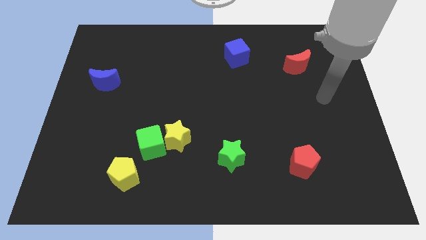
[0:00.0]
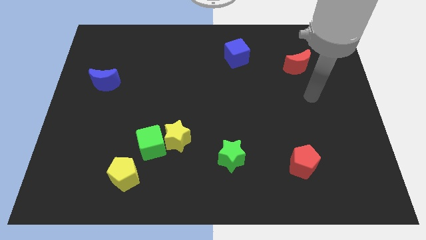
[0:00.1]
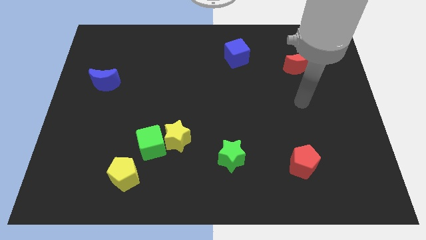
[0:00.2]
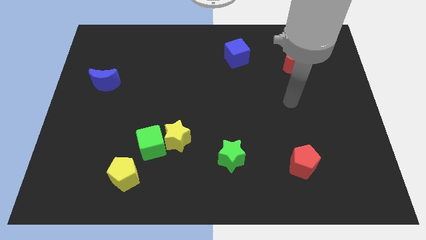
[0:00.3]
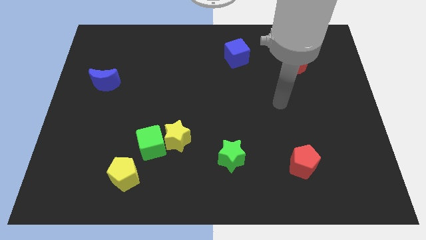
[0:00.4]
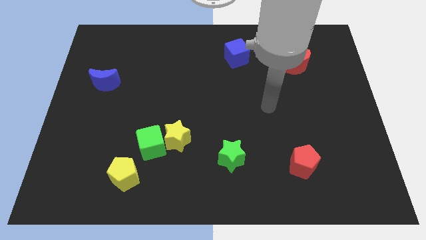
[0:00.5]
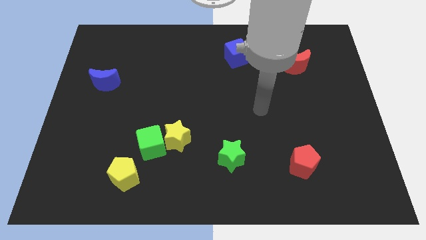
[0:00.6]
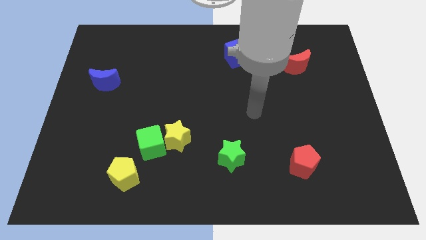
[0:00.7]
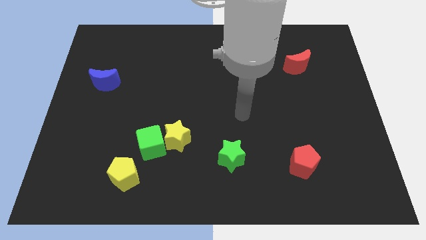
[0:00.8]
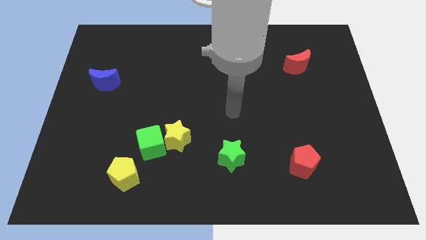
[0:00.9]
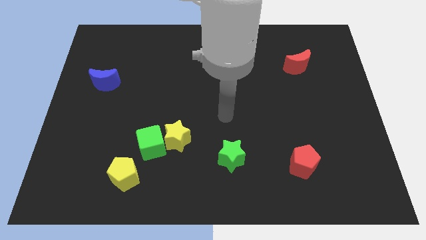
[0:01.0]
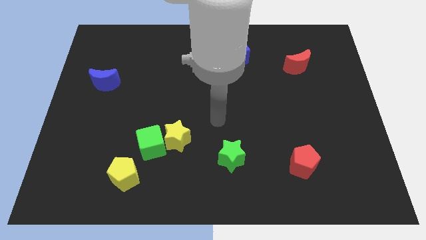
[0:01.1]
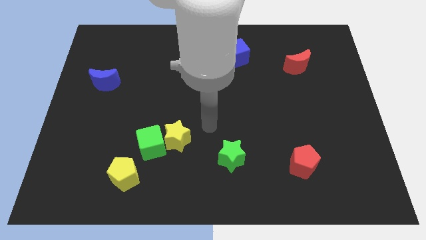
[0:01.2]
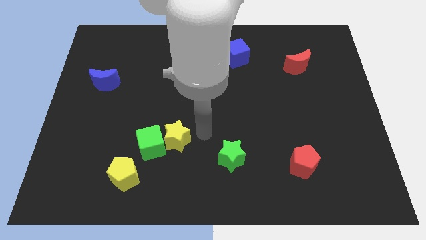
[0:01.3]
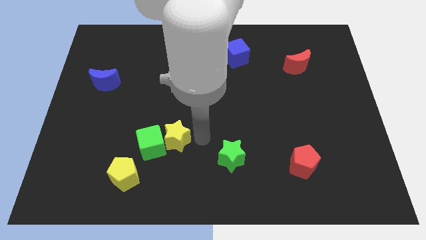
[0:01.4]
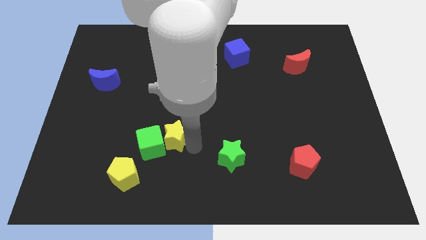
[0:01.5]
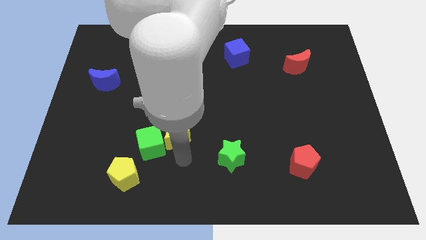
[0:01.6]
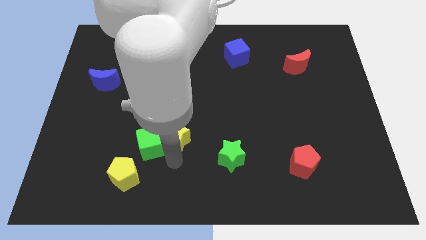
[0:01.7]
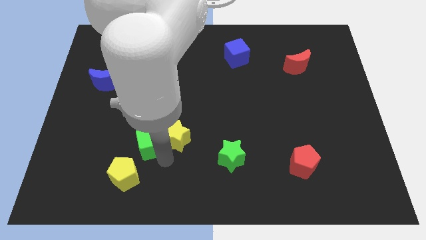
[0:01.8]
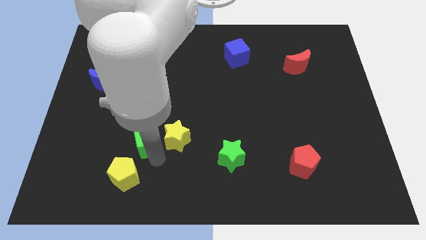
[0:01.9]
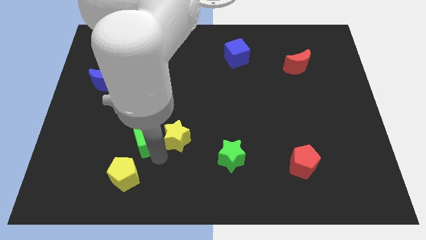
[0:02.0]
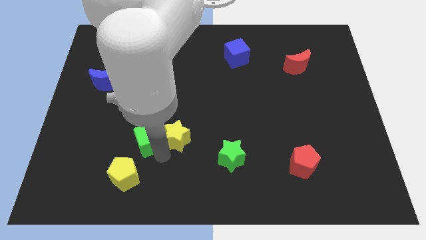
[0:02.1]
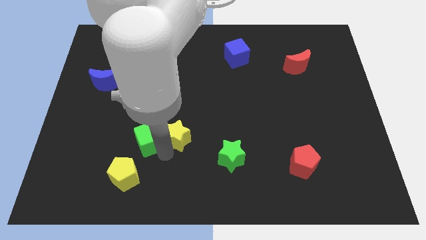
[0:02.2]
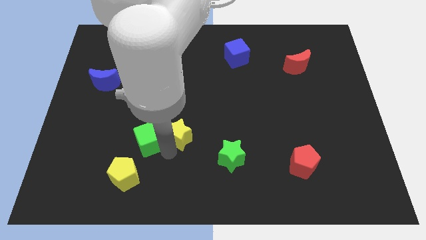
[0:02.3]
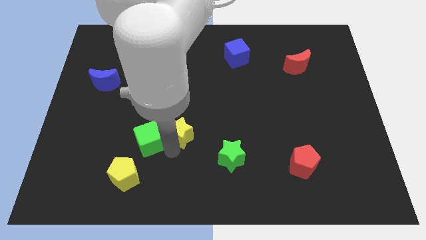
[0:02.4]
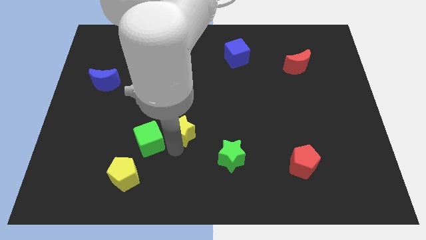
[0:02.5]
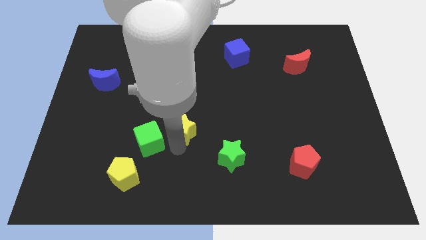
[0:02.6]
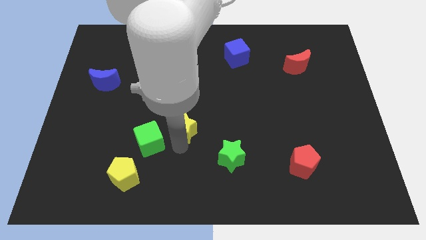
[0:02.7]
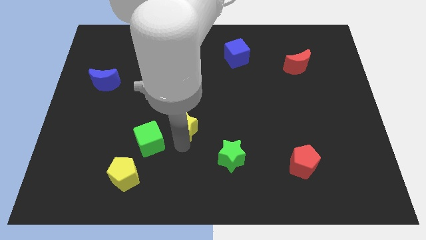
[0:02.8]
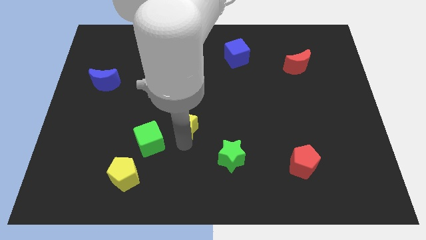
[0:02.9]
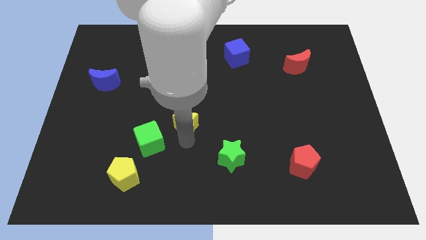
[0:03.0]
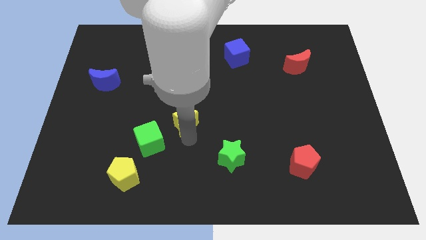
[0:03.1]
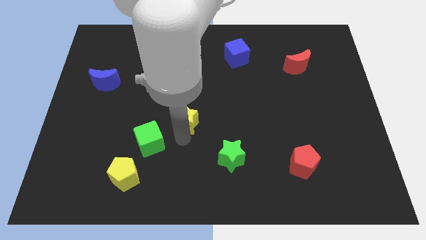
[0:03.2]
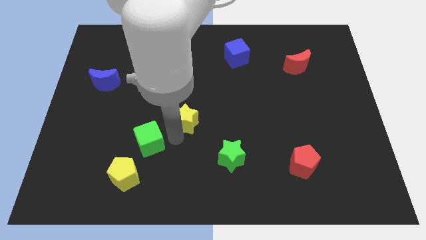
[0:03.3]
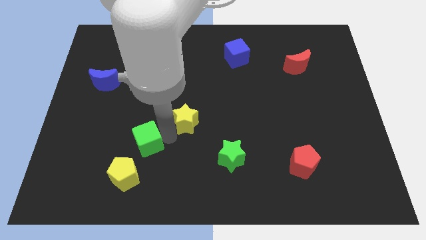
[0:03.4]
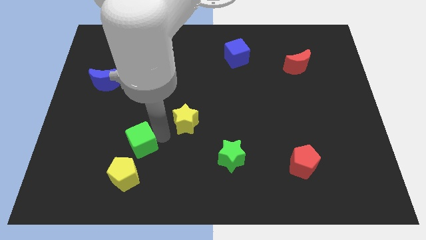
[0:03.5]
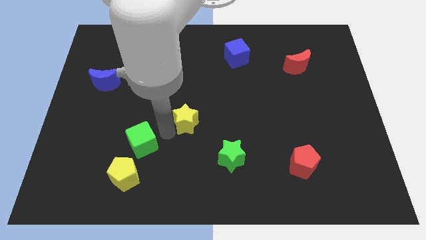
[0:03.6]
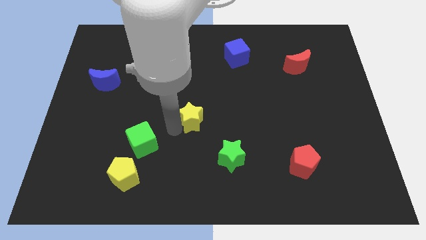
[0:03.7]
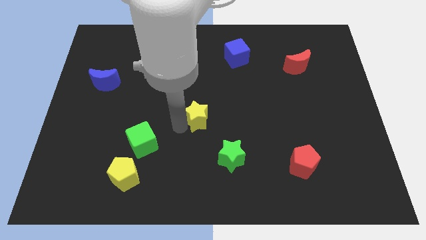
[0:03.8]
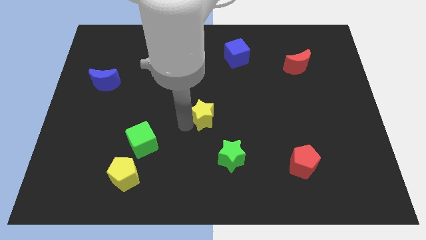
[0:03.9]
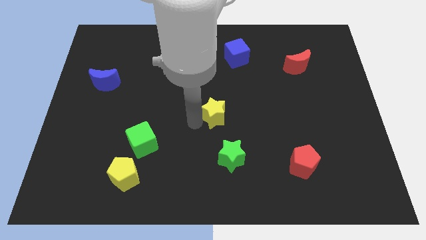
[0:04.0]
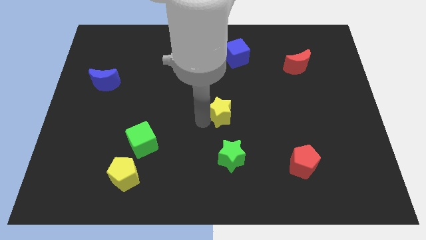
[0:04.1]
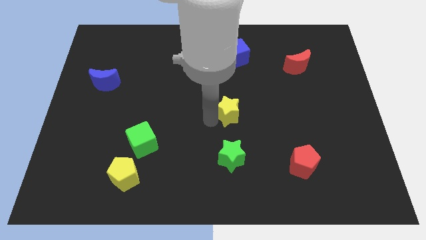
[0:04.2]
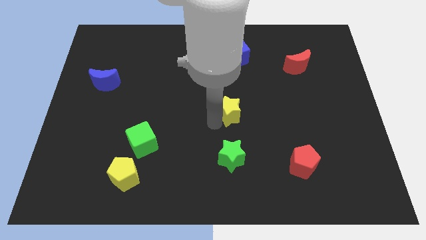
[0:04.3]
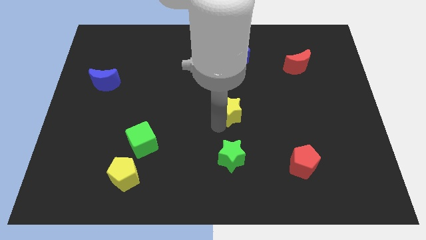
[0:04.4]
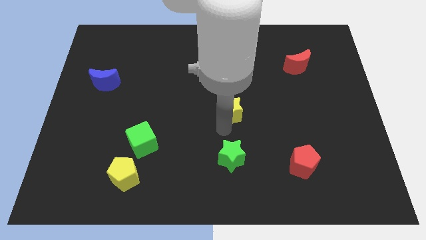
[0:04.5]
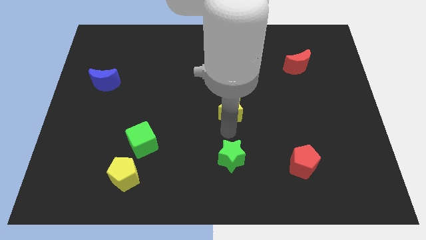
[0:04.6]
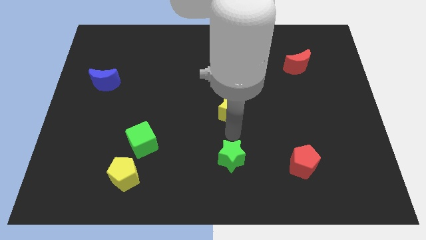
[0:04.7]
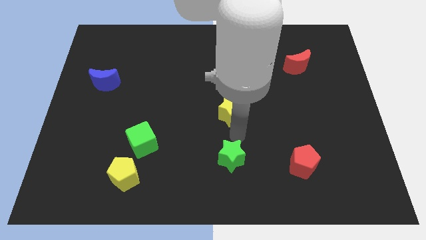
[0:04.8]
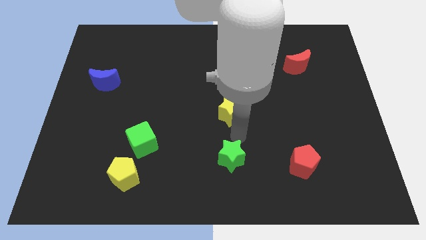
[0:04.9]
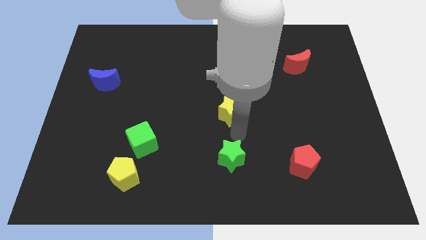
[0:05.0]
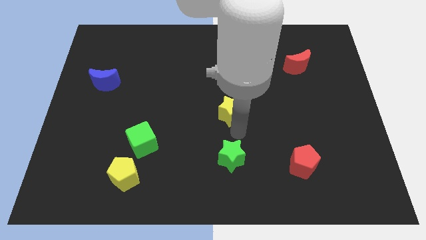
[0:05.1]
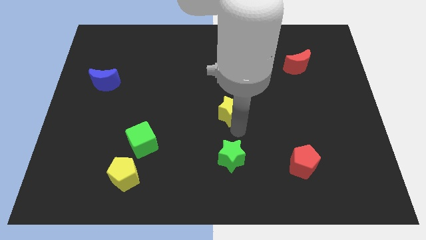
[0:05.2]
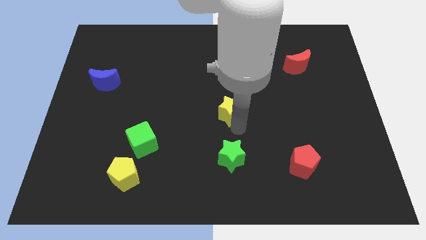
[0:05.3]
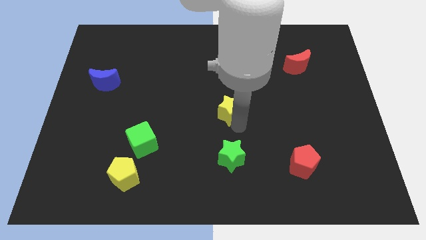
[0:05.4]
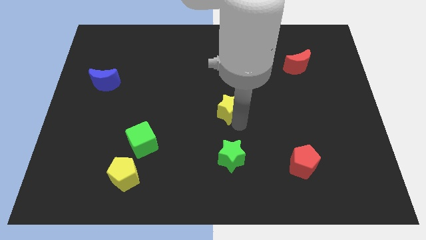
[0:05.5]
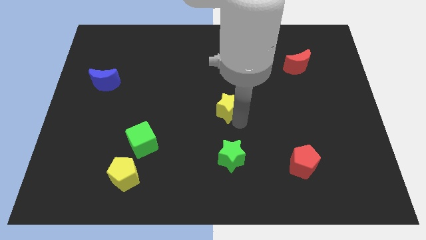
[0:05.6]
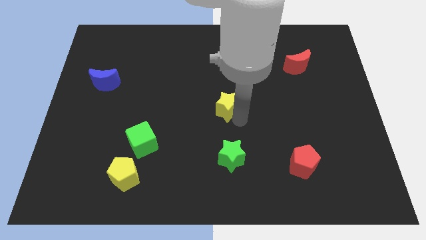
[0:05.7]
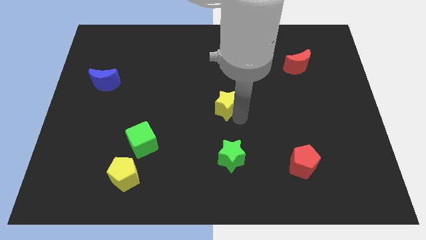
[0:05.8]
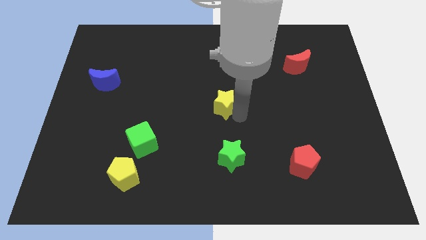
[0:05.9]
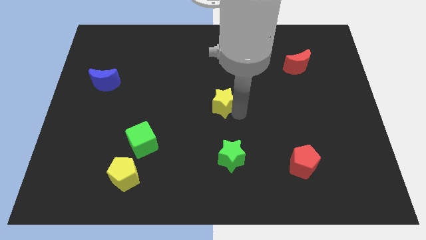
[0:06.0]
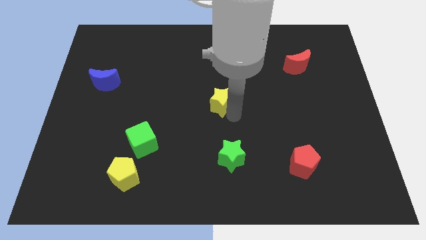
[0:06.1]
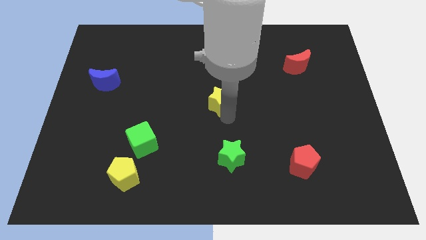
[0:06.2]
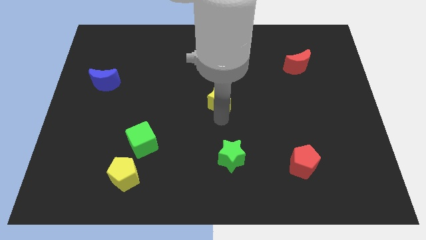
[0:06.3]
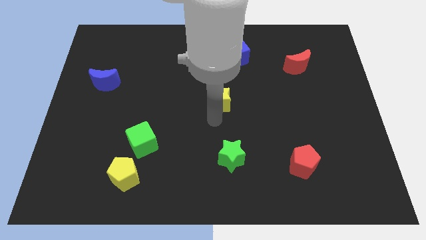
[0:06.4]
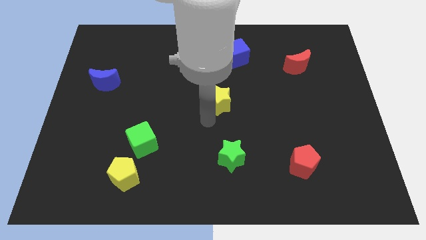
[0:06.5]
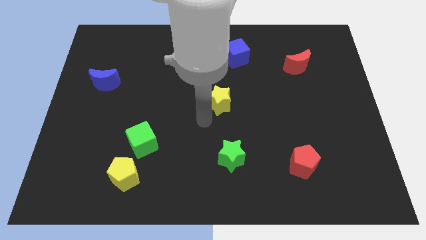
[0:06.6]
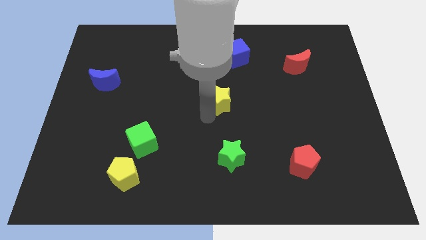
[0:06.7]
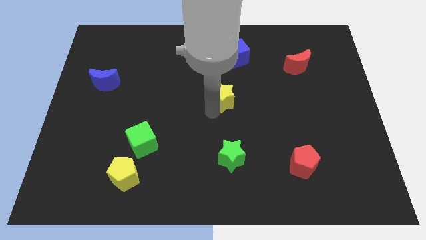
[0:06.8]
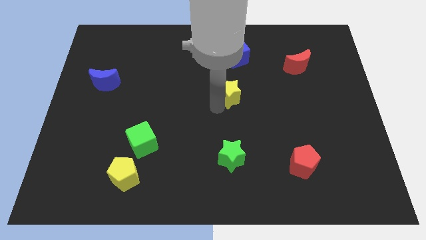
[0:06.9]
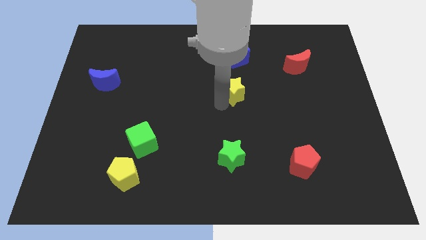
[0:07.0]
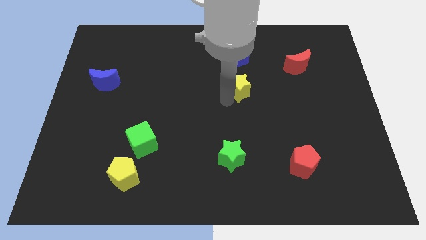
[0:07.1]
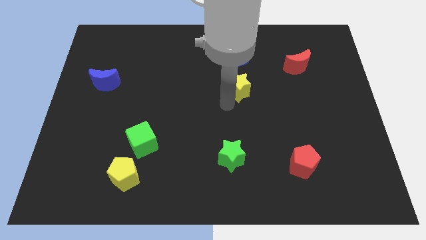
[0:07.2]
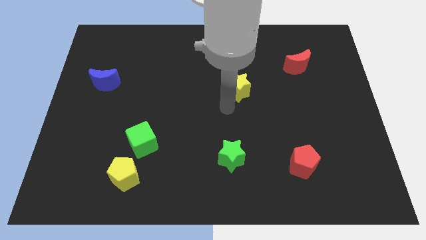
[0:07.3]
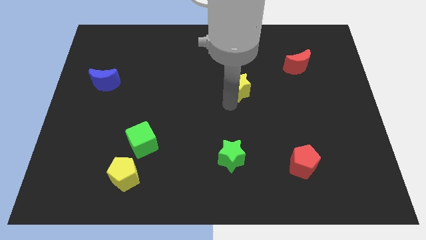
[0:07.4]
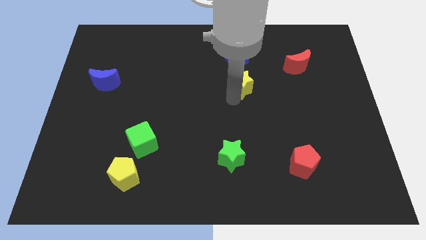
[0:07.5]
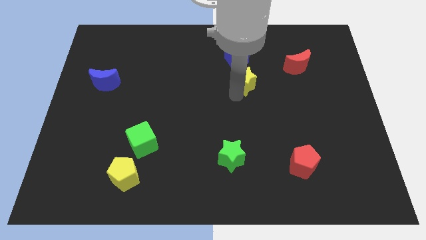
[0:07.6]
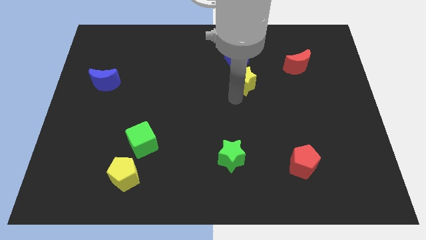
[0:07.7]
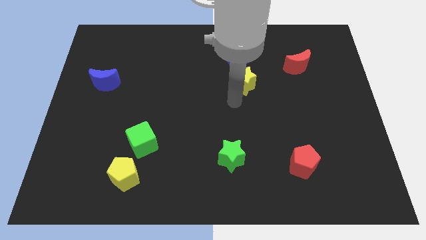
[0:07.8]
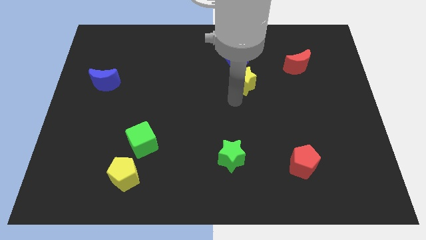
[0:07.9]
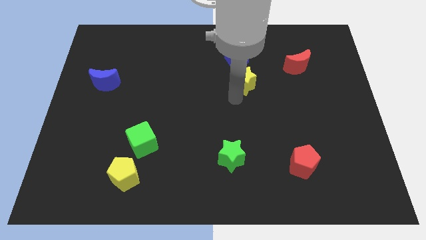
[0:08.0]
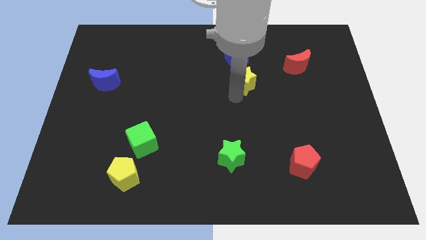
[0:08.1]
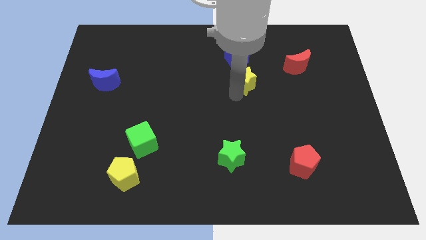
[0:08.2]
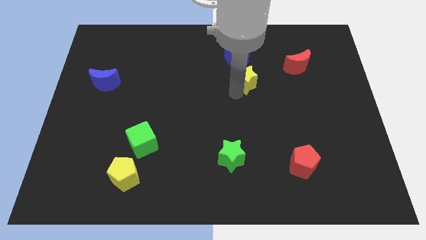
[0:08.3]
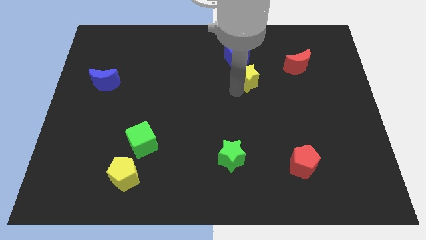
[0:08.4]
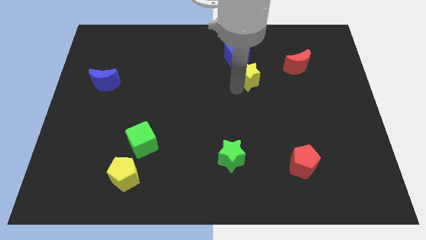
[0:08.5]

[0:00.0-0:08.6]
move the yellow star to the left side of the red moon
